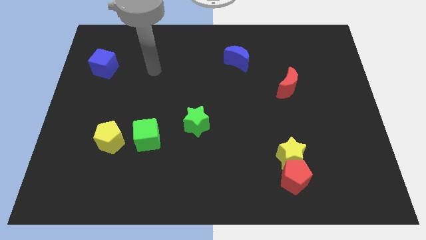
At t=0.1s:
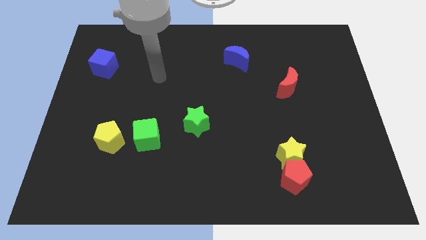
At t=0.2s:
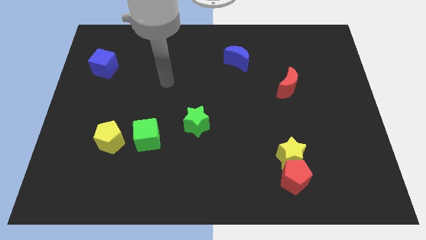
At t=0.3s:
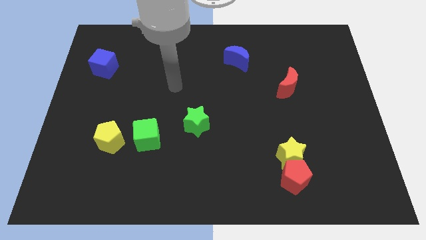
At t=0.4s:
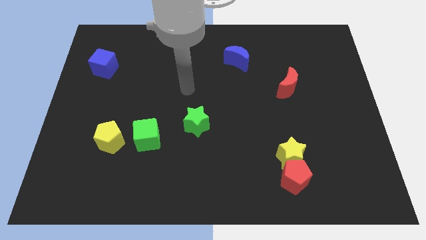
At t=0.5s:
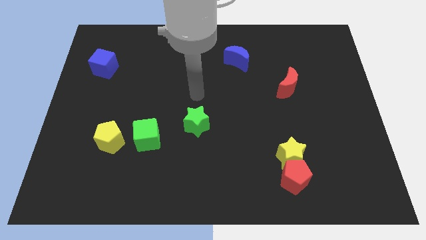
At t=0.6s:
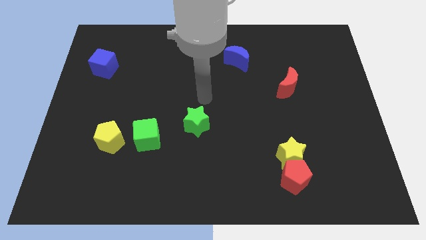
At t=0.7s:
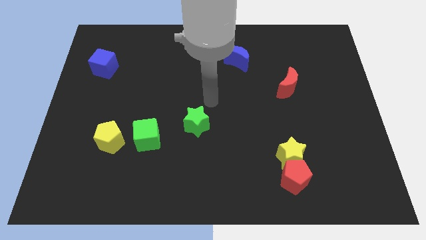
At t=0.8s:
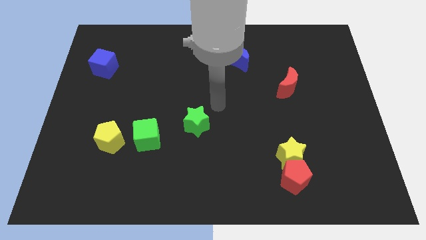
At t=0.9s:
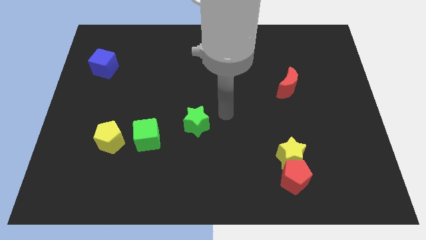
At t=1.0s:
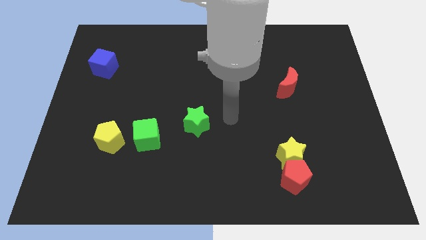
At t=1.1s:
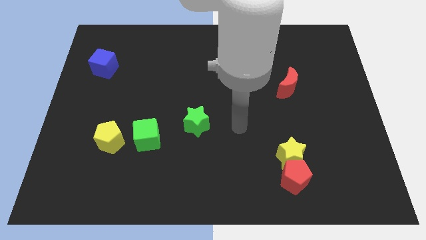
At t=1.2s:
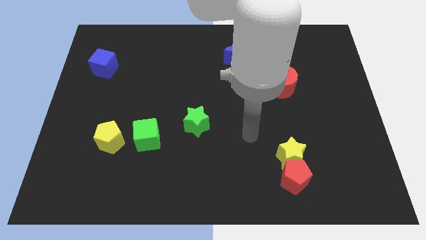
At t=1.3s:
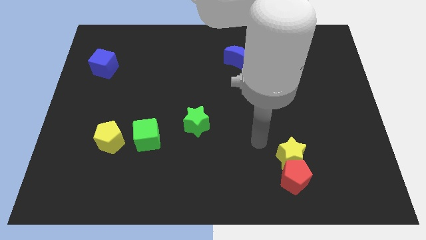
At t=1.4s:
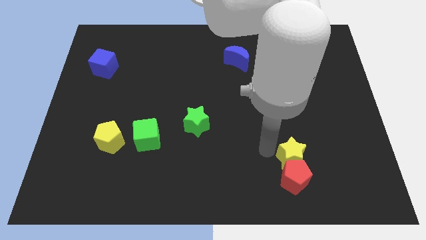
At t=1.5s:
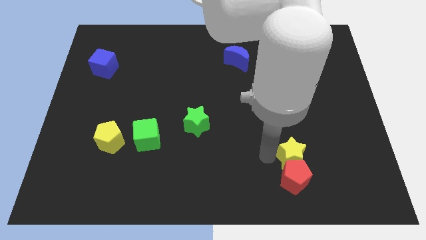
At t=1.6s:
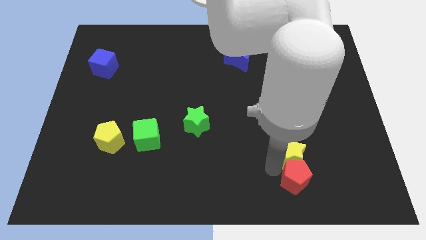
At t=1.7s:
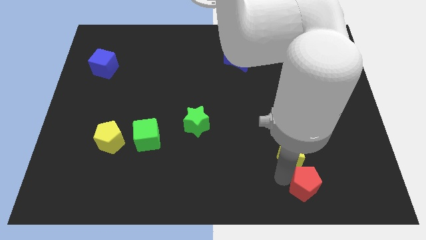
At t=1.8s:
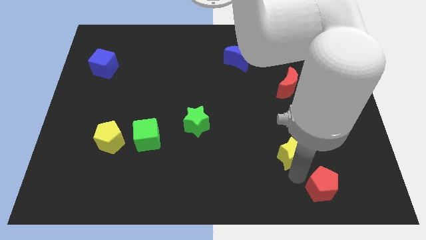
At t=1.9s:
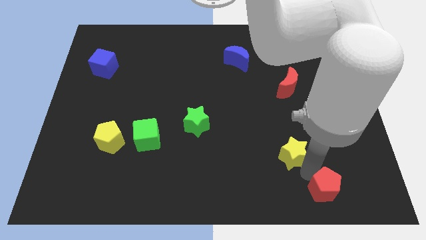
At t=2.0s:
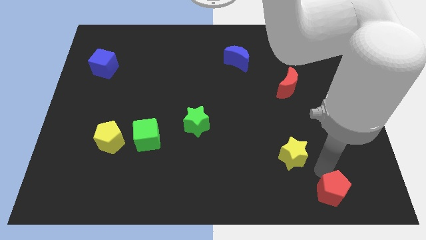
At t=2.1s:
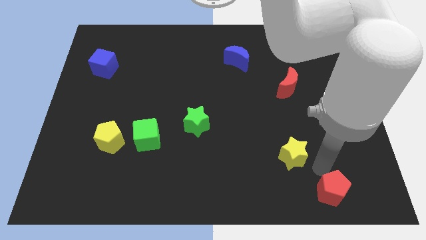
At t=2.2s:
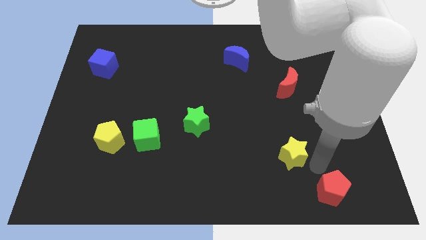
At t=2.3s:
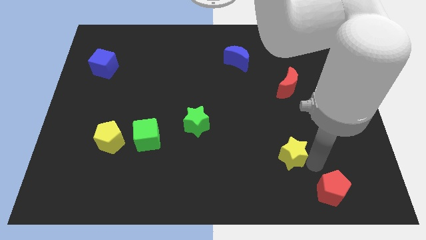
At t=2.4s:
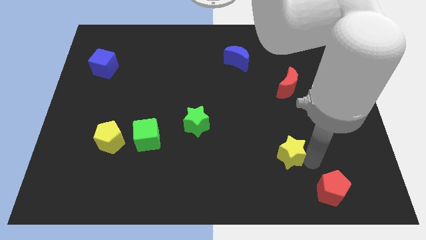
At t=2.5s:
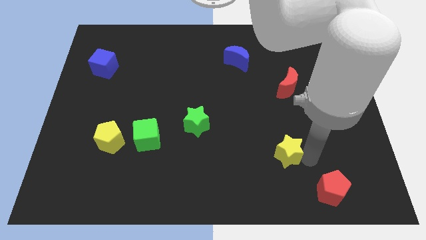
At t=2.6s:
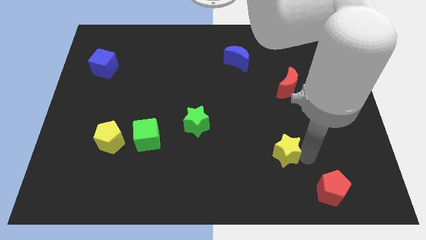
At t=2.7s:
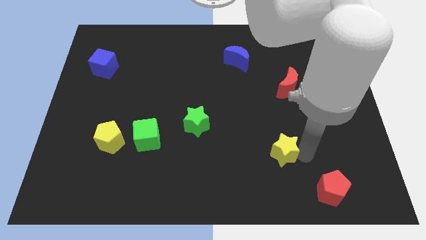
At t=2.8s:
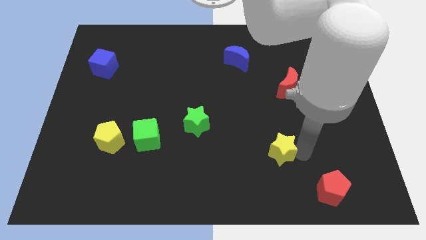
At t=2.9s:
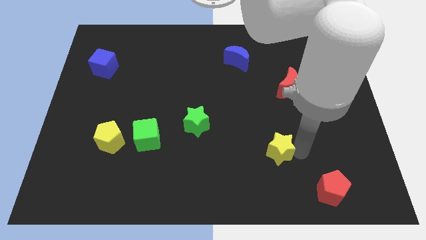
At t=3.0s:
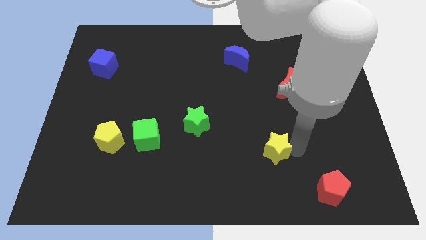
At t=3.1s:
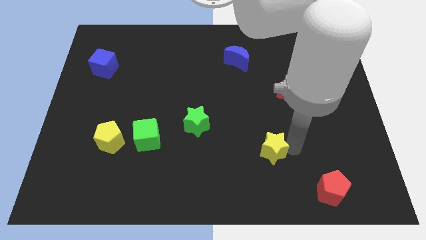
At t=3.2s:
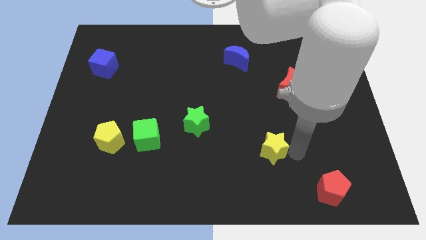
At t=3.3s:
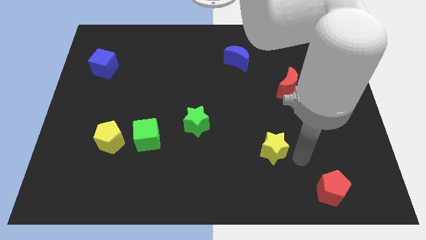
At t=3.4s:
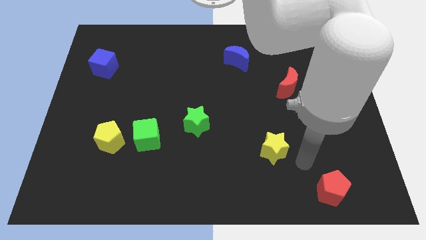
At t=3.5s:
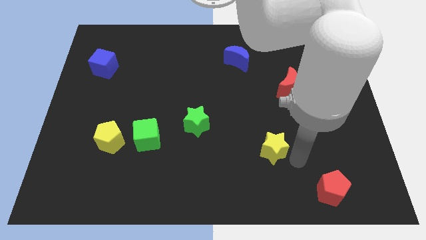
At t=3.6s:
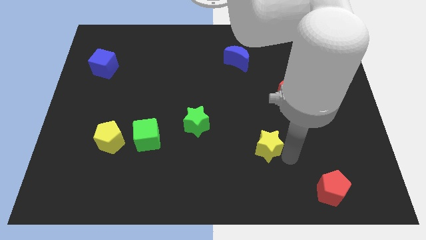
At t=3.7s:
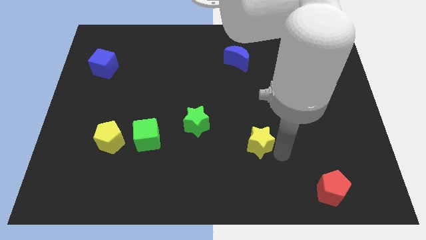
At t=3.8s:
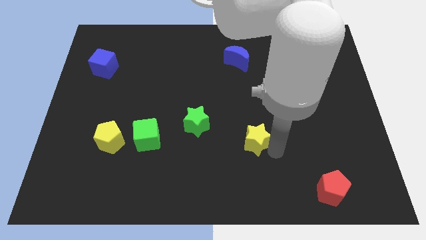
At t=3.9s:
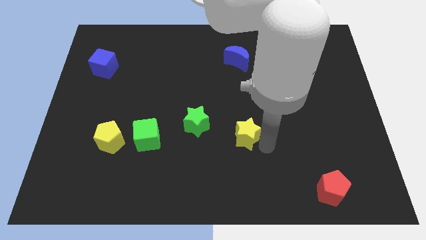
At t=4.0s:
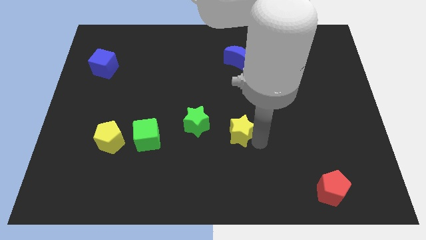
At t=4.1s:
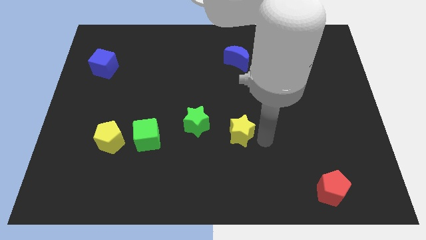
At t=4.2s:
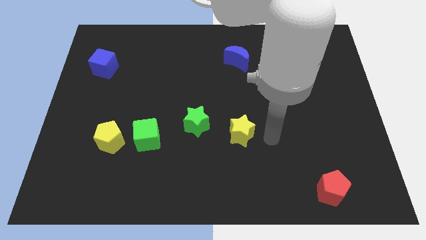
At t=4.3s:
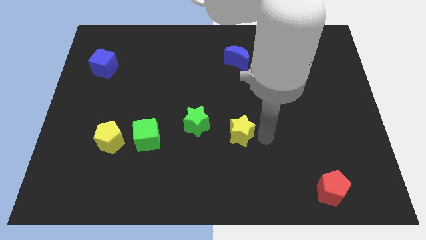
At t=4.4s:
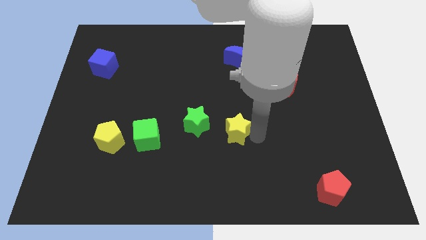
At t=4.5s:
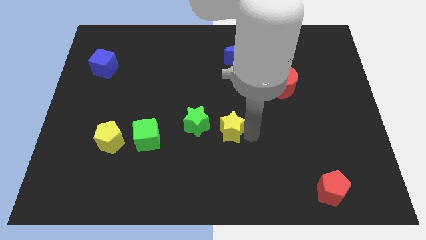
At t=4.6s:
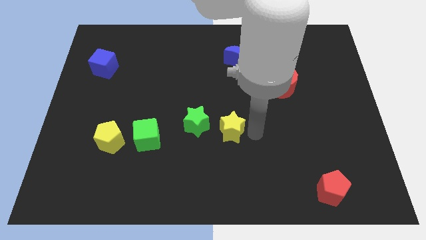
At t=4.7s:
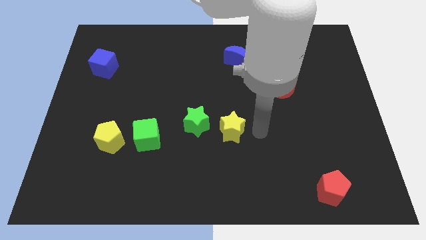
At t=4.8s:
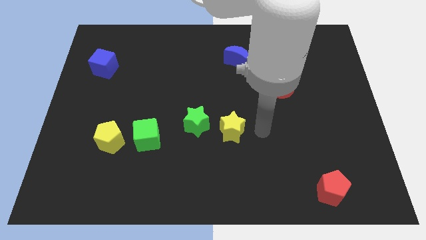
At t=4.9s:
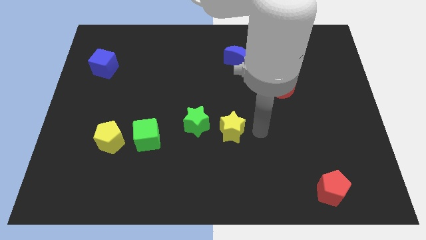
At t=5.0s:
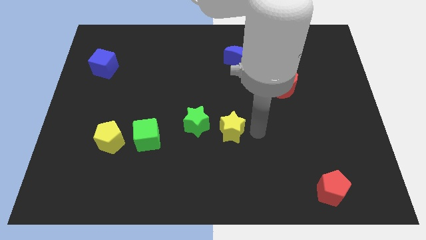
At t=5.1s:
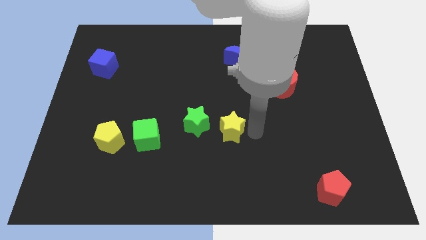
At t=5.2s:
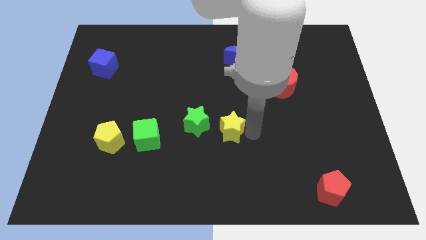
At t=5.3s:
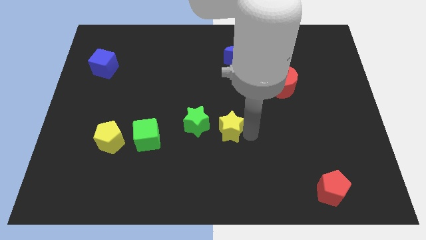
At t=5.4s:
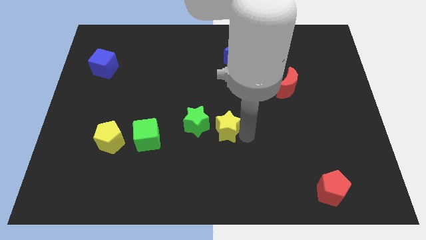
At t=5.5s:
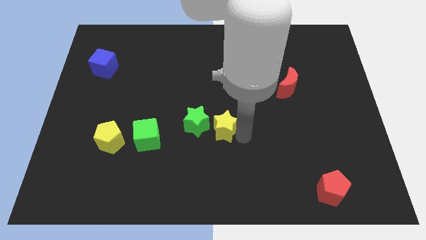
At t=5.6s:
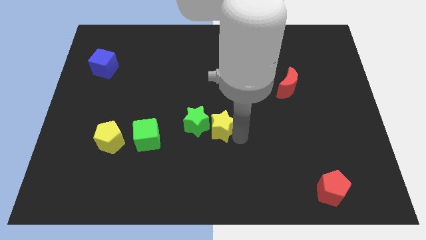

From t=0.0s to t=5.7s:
push the yellow star towards the green star

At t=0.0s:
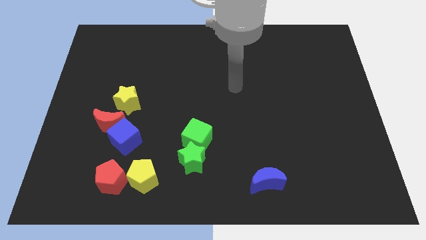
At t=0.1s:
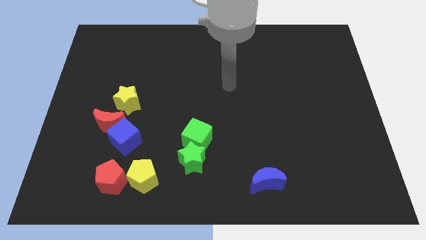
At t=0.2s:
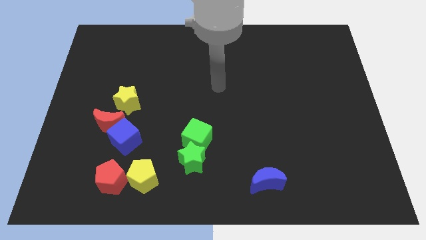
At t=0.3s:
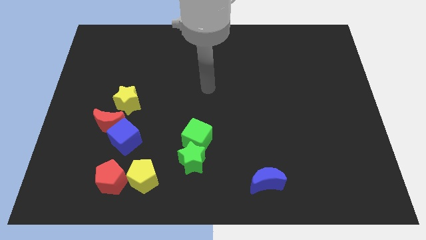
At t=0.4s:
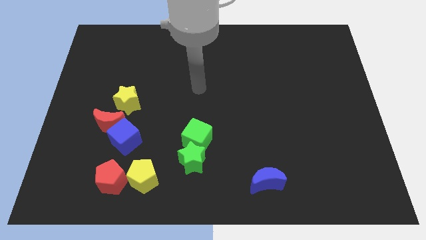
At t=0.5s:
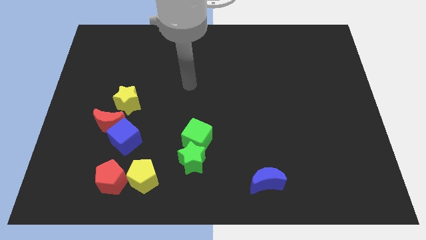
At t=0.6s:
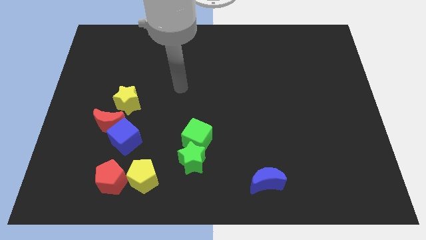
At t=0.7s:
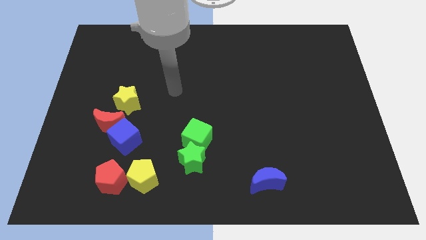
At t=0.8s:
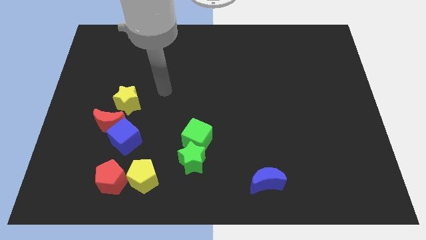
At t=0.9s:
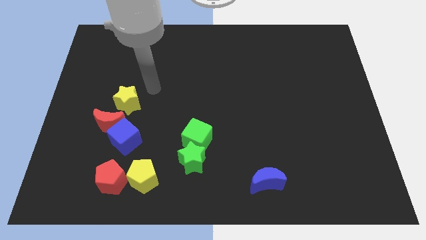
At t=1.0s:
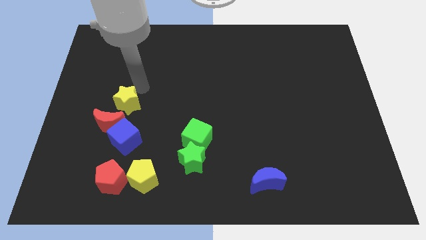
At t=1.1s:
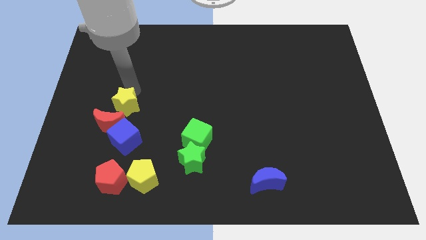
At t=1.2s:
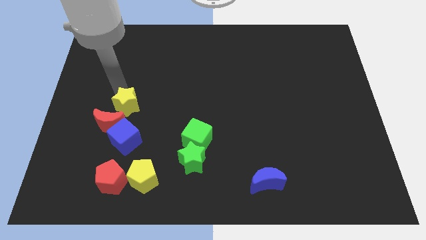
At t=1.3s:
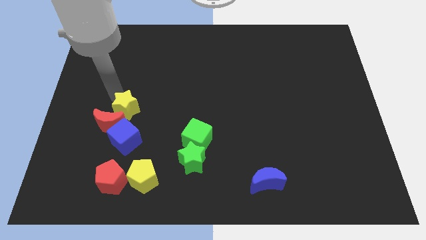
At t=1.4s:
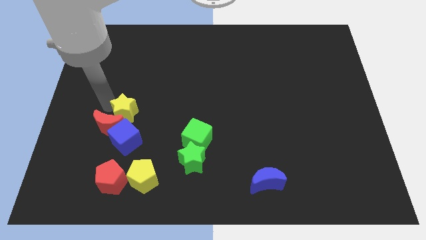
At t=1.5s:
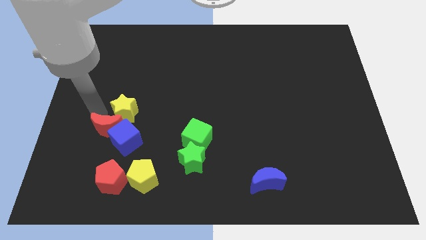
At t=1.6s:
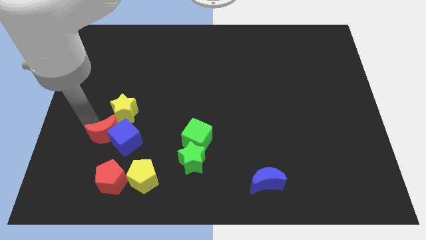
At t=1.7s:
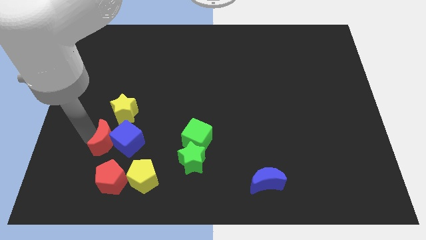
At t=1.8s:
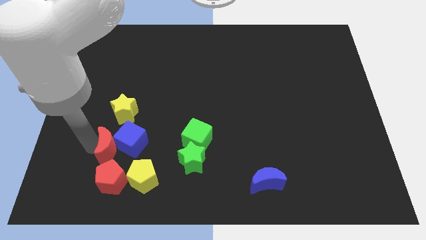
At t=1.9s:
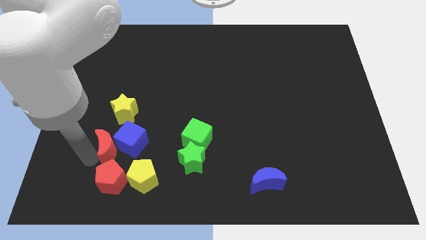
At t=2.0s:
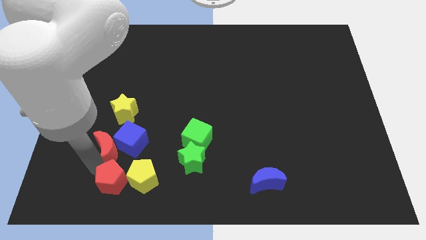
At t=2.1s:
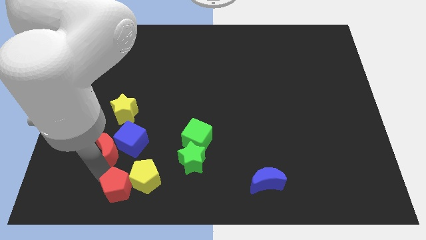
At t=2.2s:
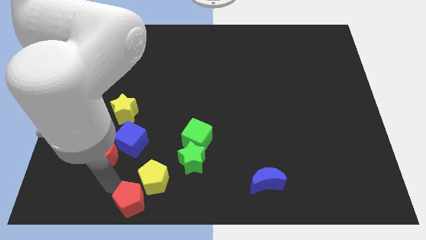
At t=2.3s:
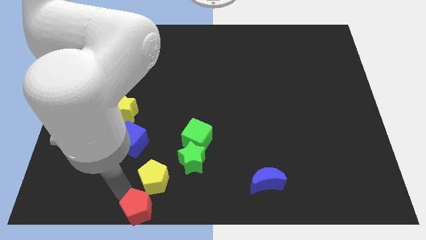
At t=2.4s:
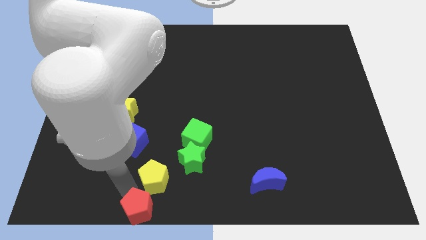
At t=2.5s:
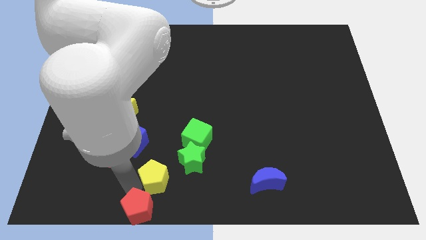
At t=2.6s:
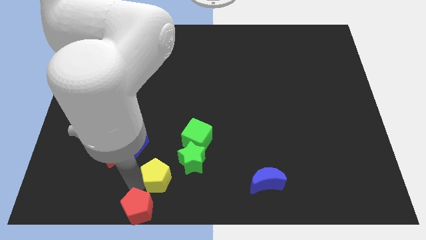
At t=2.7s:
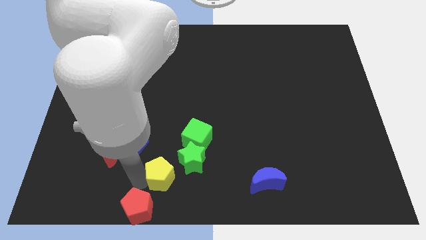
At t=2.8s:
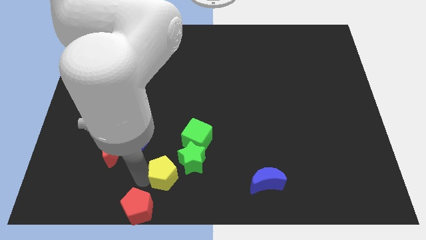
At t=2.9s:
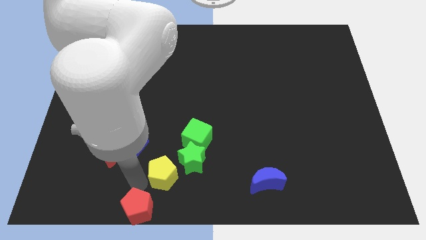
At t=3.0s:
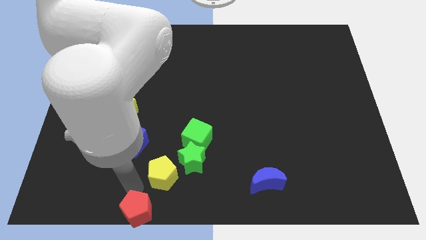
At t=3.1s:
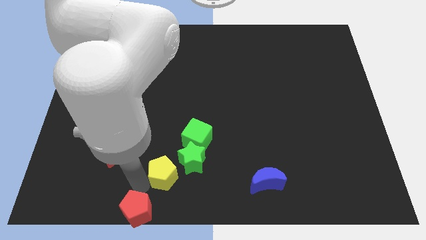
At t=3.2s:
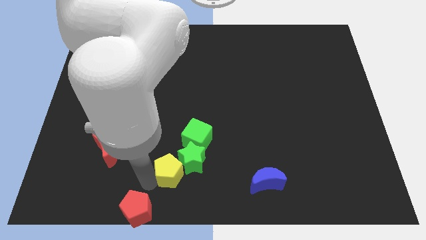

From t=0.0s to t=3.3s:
put the yellow pentagon towards the green star
